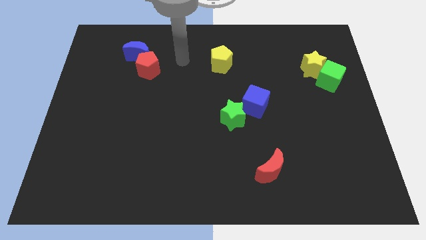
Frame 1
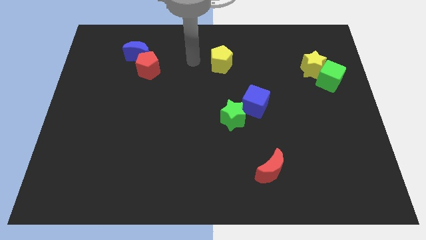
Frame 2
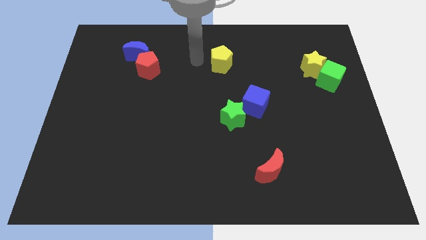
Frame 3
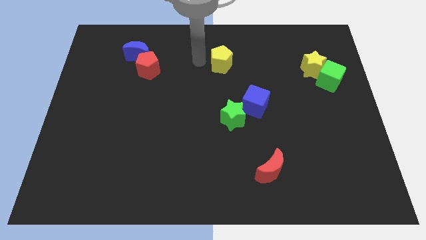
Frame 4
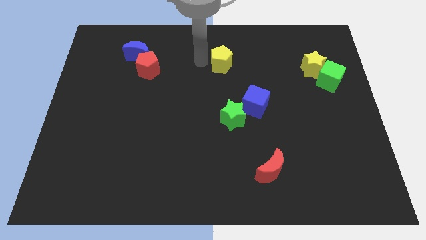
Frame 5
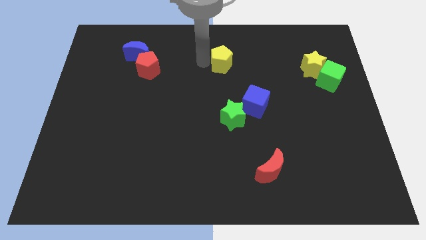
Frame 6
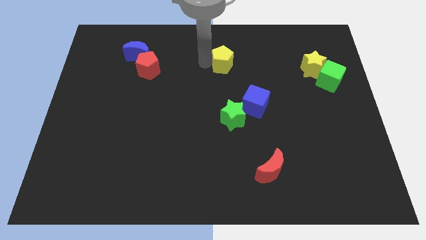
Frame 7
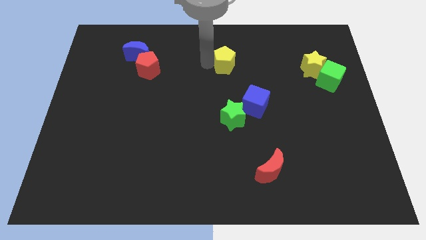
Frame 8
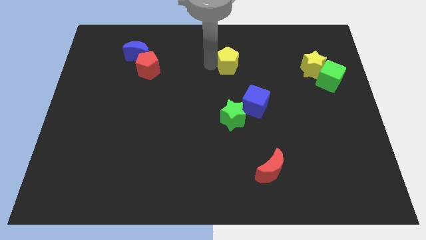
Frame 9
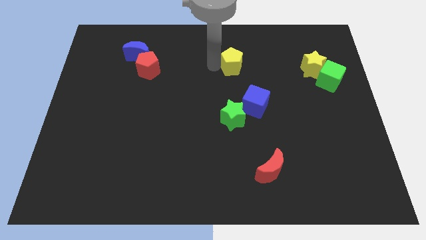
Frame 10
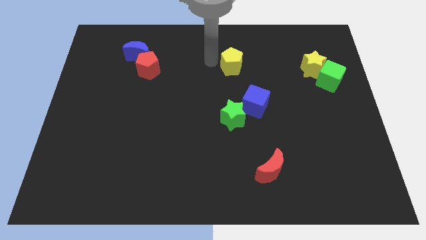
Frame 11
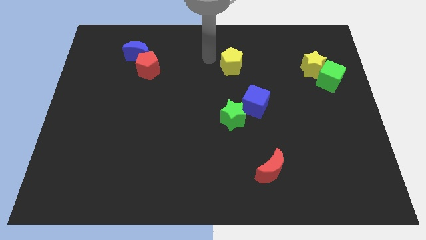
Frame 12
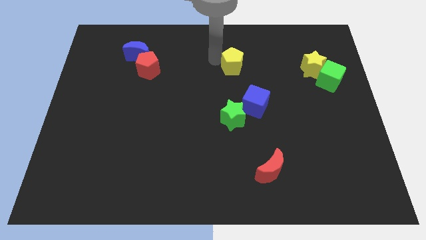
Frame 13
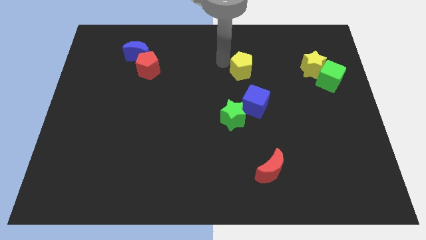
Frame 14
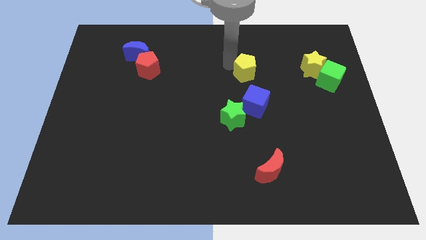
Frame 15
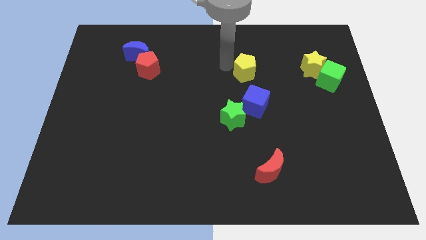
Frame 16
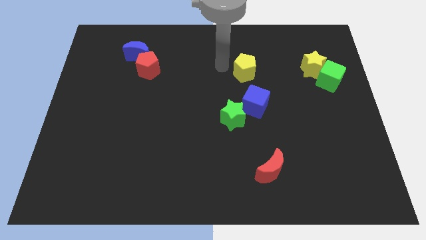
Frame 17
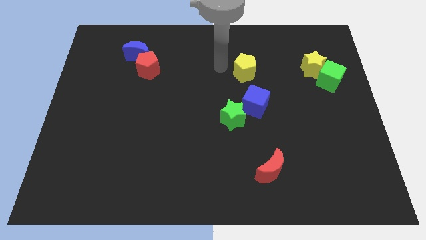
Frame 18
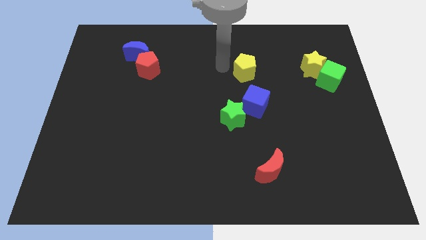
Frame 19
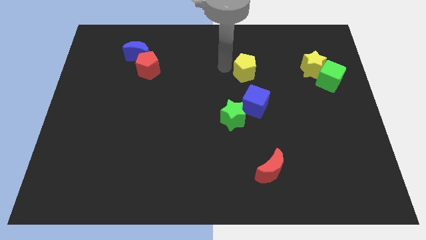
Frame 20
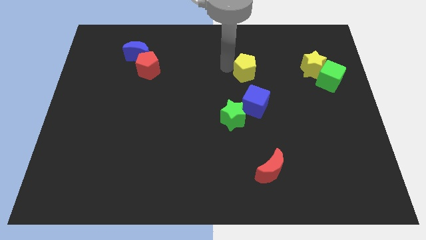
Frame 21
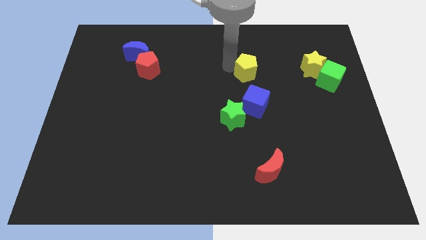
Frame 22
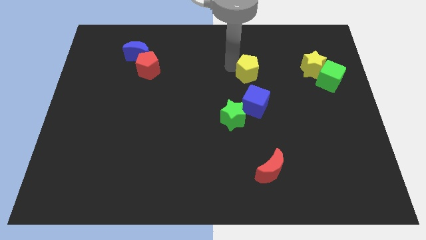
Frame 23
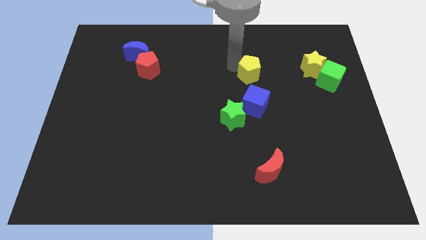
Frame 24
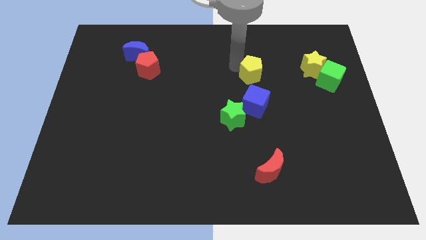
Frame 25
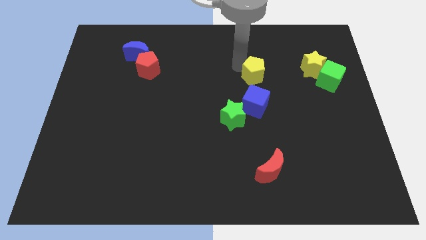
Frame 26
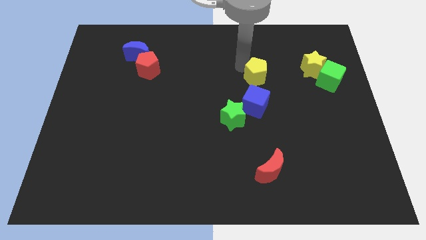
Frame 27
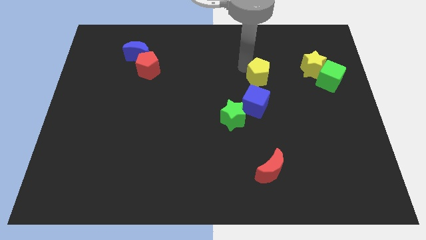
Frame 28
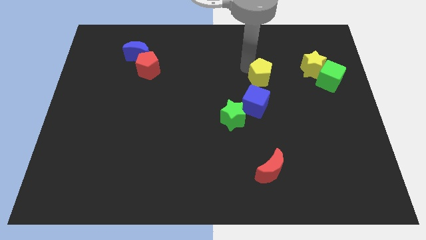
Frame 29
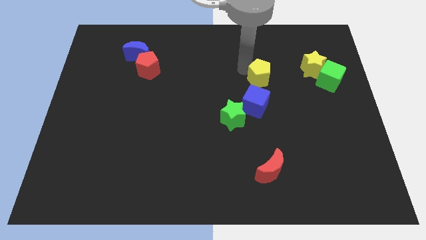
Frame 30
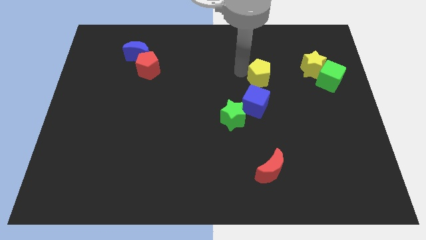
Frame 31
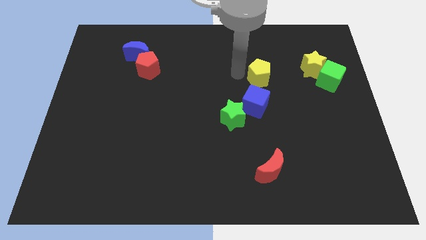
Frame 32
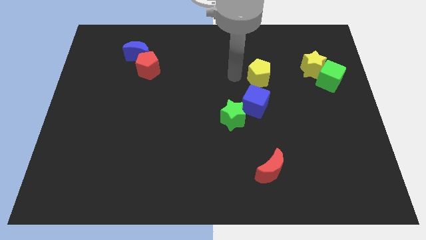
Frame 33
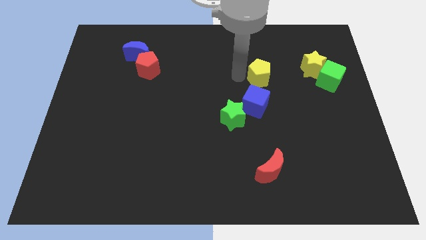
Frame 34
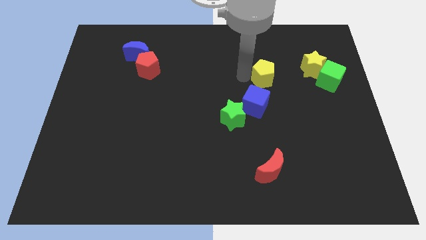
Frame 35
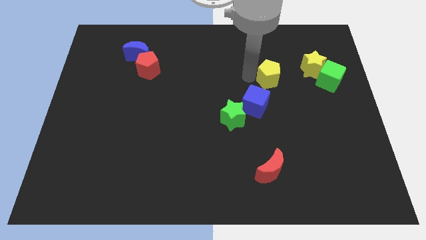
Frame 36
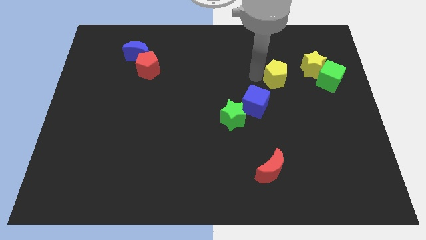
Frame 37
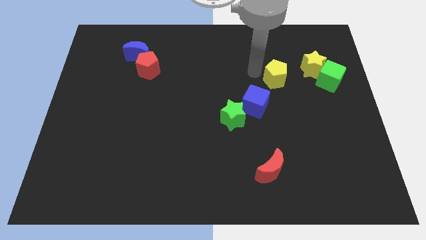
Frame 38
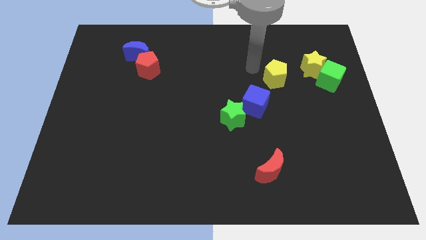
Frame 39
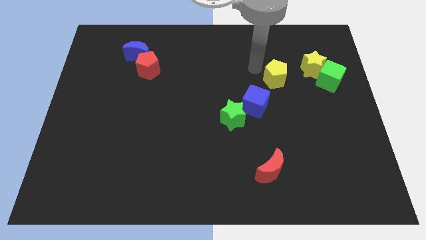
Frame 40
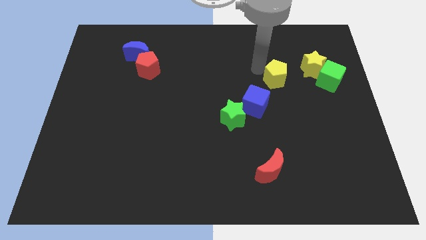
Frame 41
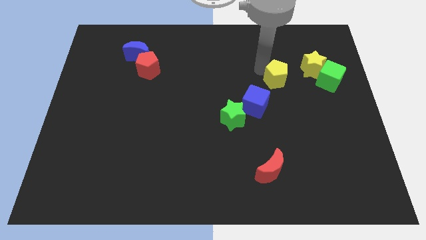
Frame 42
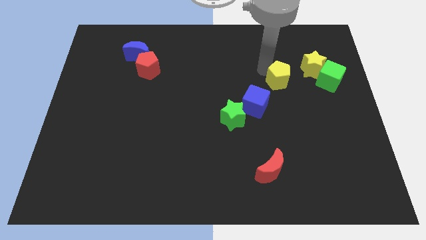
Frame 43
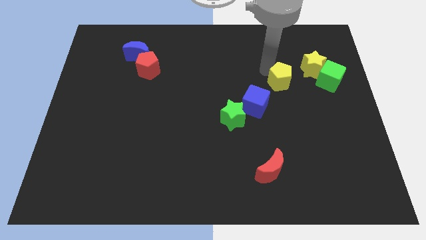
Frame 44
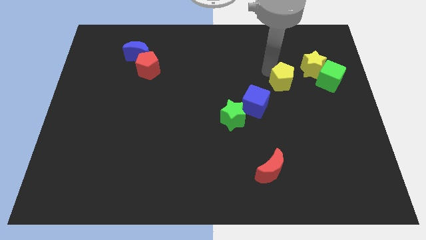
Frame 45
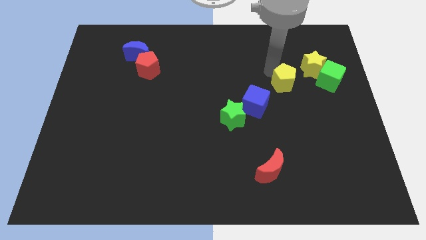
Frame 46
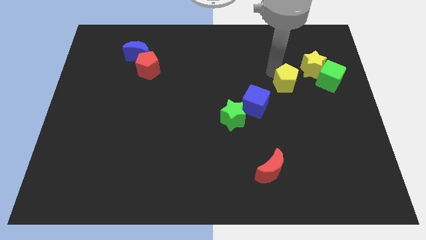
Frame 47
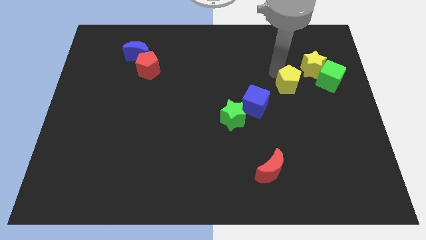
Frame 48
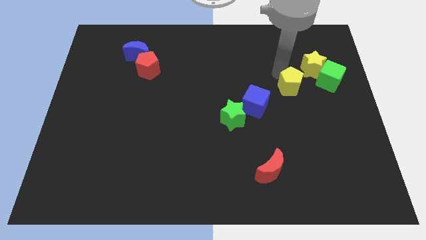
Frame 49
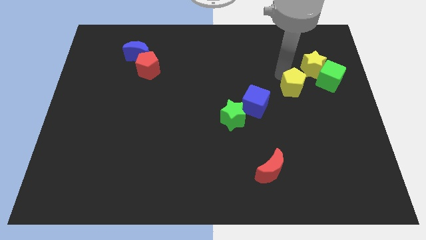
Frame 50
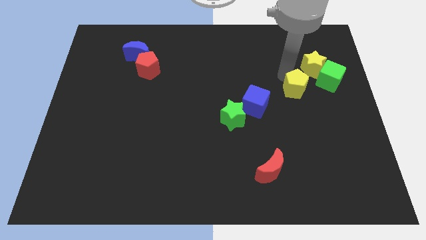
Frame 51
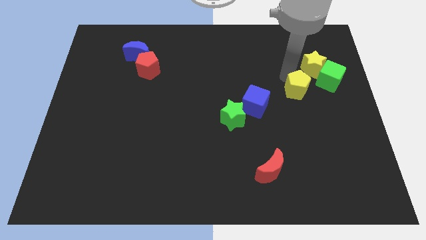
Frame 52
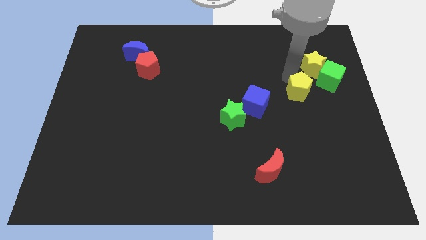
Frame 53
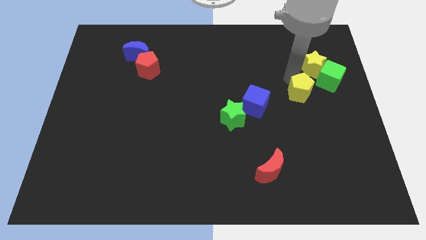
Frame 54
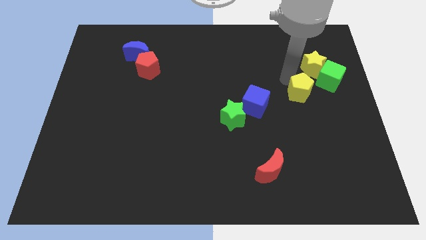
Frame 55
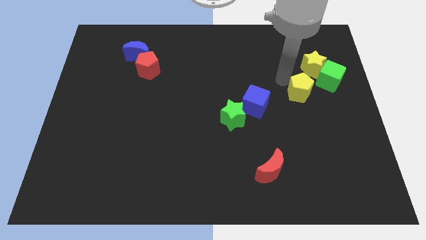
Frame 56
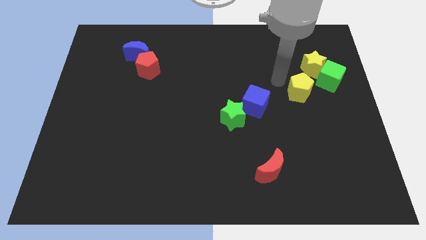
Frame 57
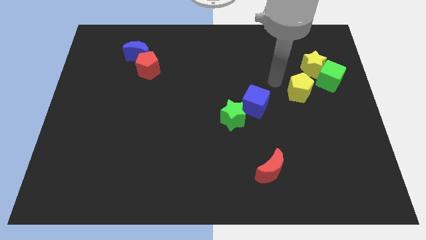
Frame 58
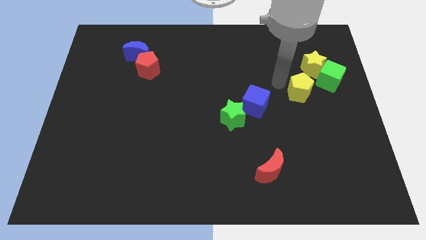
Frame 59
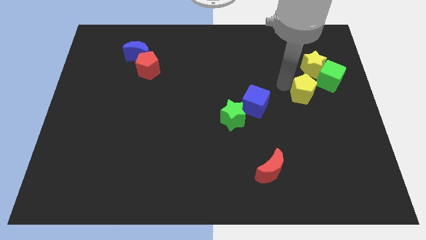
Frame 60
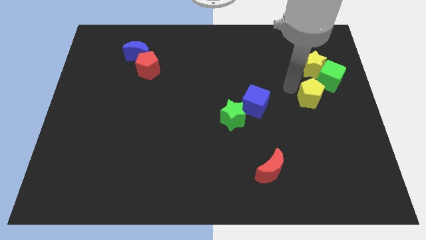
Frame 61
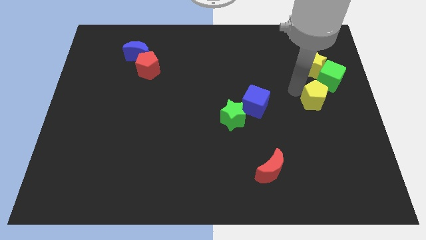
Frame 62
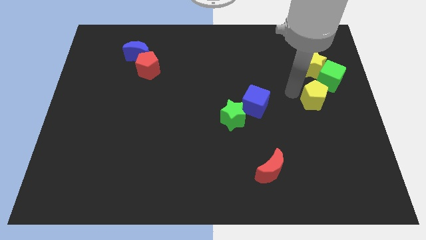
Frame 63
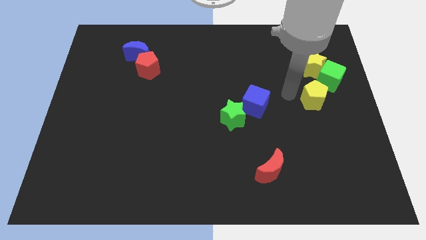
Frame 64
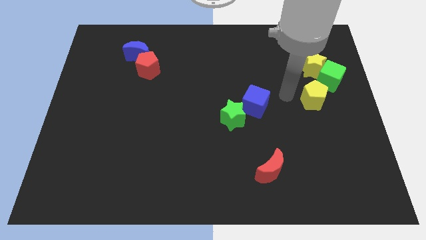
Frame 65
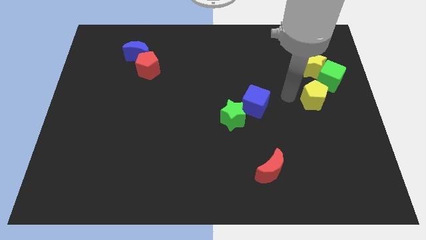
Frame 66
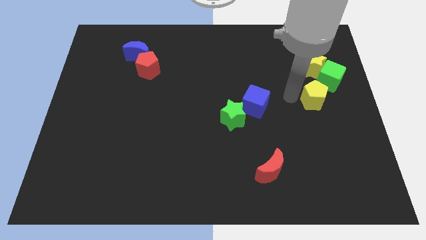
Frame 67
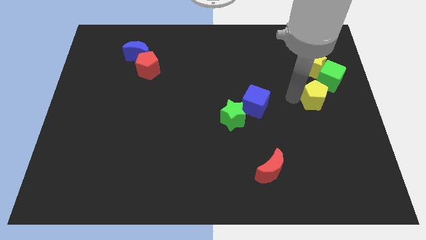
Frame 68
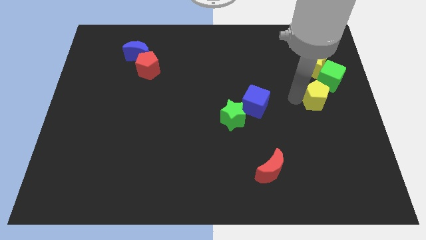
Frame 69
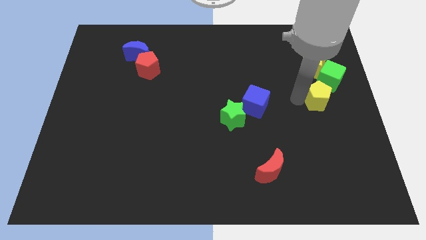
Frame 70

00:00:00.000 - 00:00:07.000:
move the yellow pentagon to the right side
